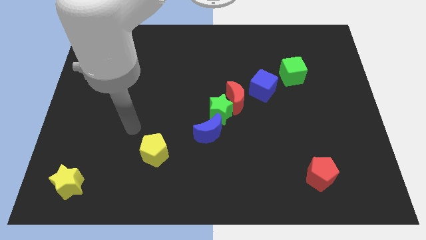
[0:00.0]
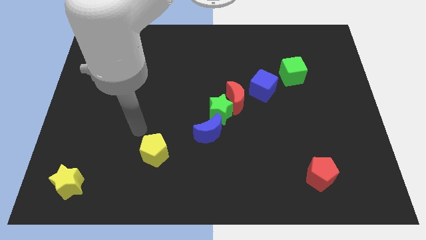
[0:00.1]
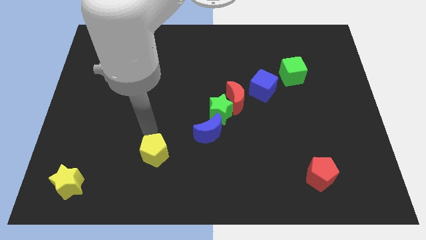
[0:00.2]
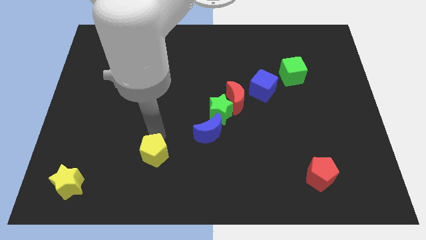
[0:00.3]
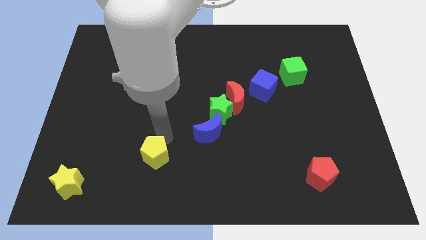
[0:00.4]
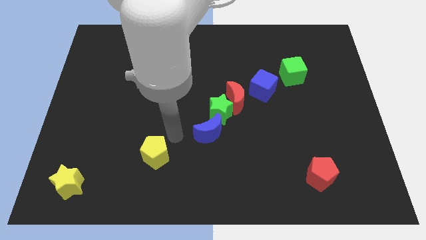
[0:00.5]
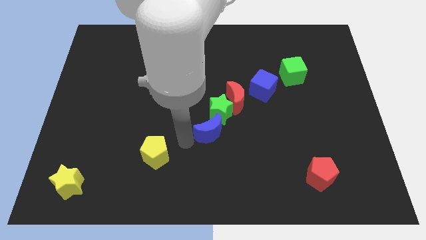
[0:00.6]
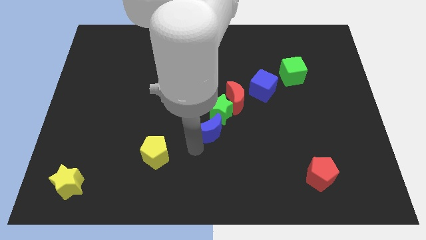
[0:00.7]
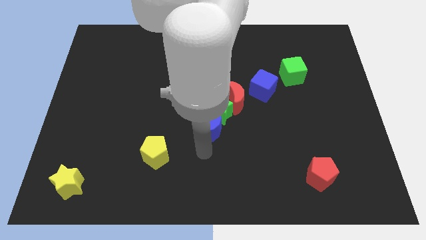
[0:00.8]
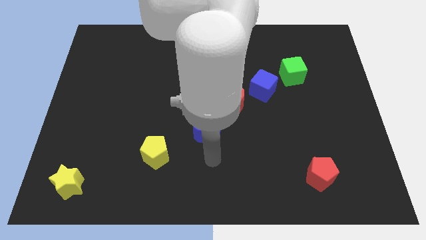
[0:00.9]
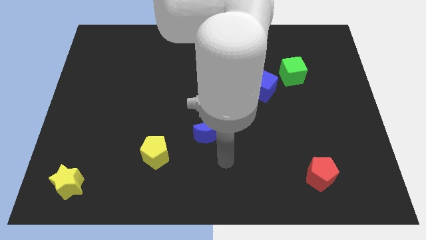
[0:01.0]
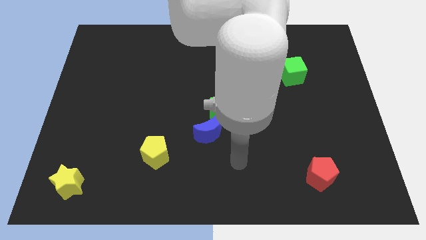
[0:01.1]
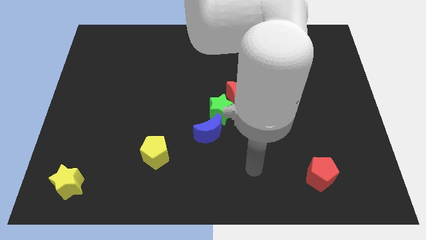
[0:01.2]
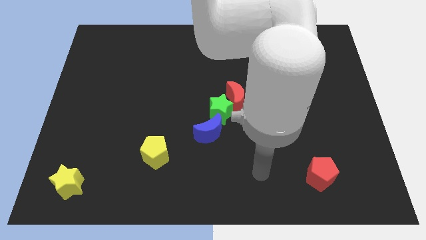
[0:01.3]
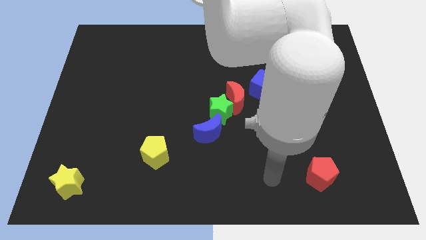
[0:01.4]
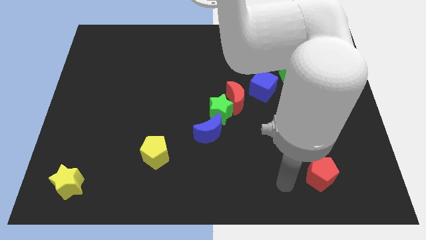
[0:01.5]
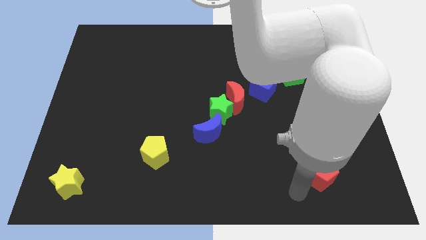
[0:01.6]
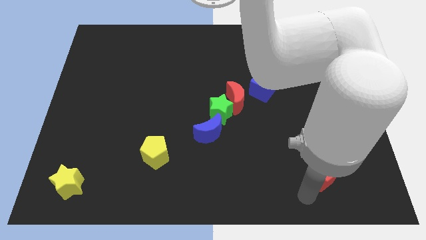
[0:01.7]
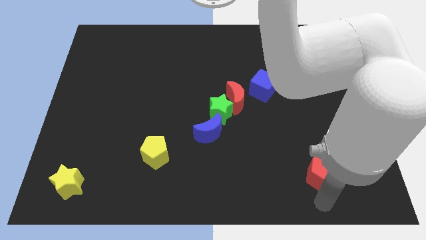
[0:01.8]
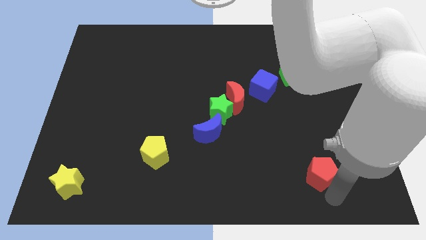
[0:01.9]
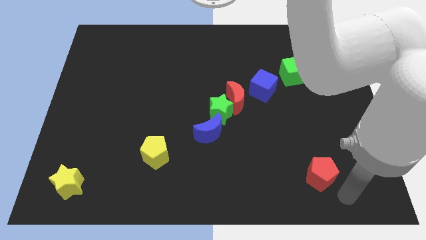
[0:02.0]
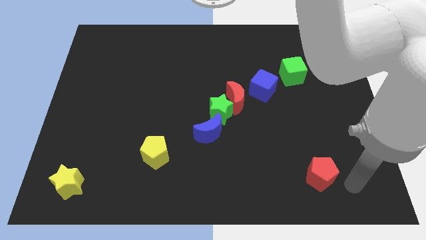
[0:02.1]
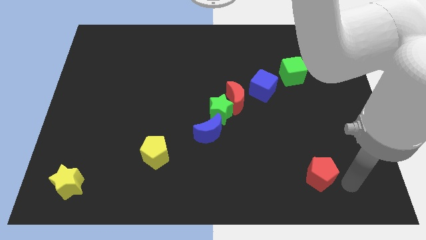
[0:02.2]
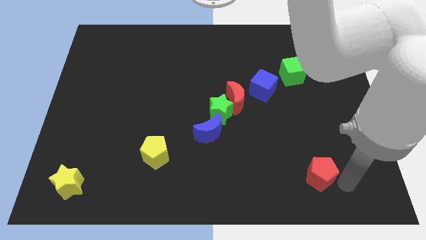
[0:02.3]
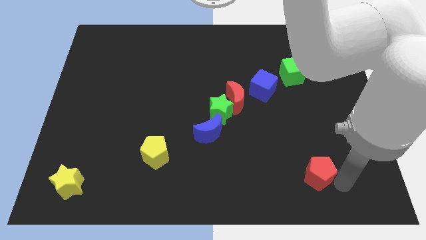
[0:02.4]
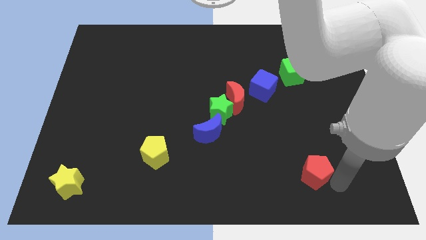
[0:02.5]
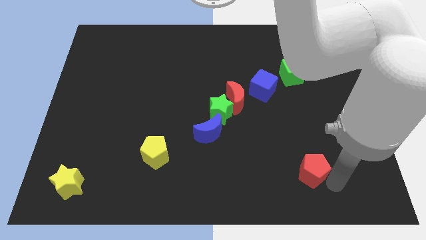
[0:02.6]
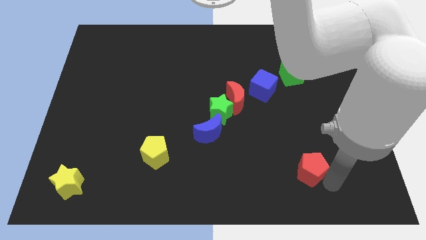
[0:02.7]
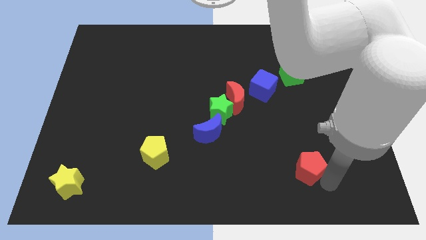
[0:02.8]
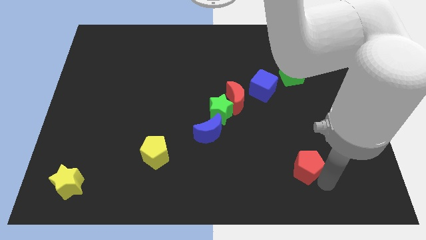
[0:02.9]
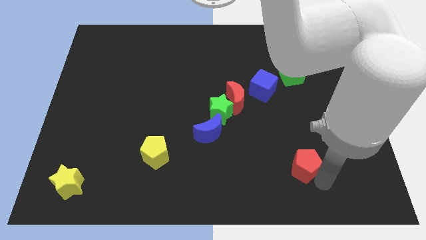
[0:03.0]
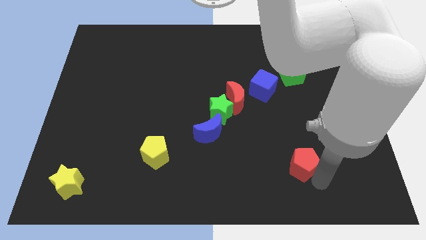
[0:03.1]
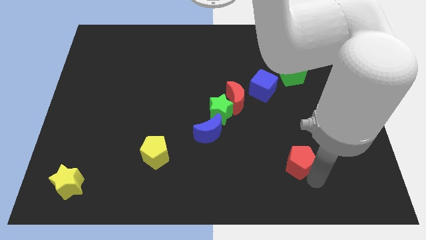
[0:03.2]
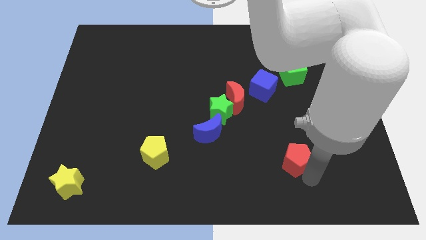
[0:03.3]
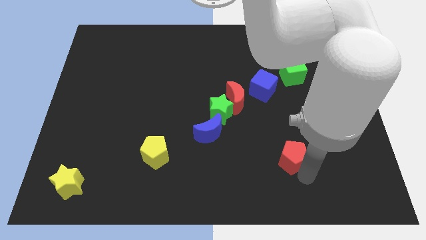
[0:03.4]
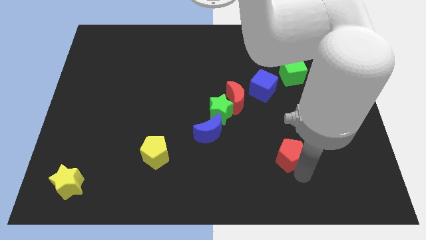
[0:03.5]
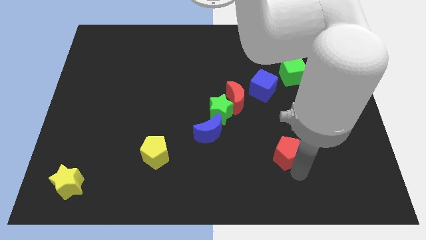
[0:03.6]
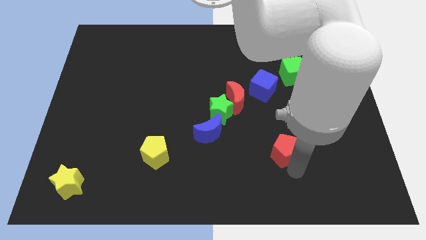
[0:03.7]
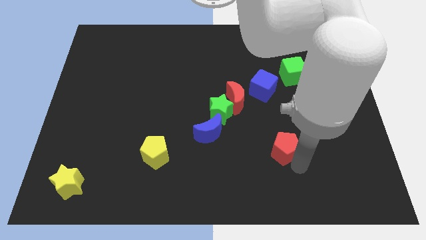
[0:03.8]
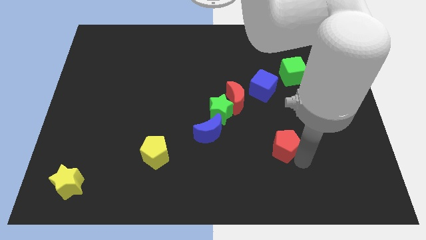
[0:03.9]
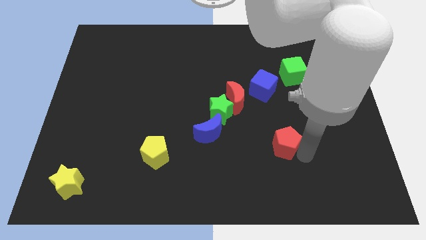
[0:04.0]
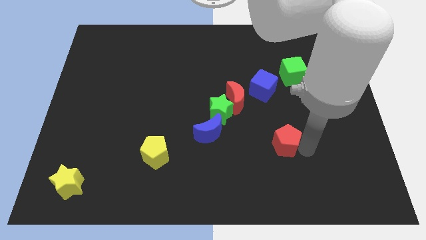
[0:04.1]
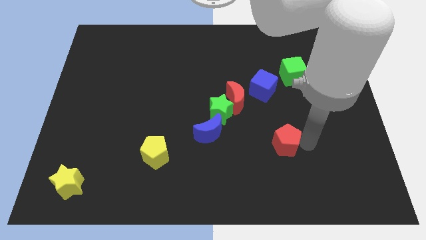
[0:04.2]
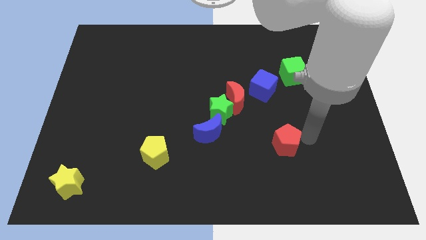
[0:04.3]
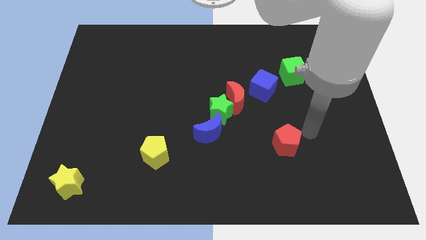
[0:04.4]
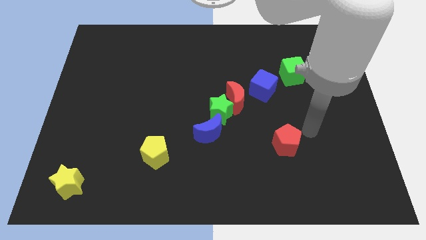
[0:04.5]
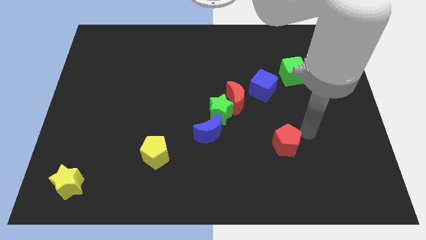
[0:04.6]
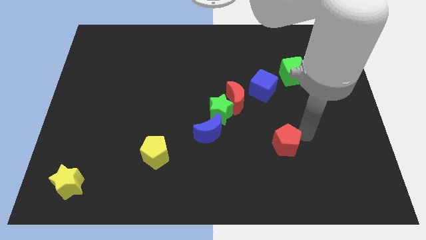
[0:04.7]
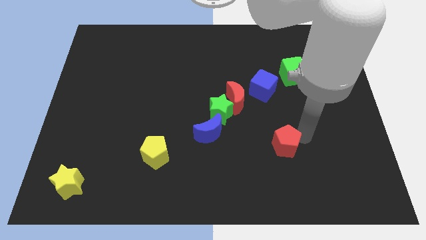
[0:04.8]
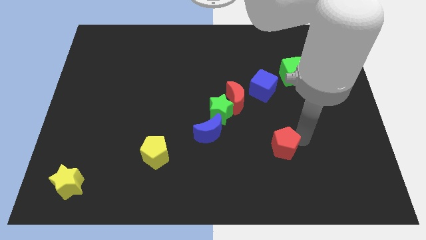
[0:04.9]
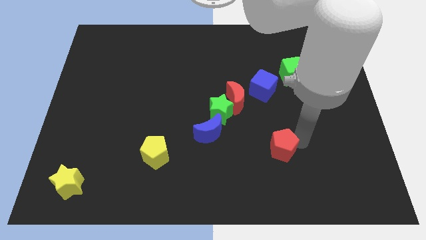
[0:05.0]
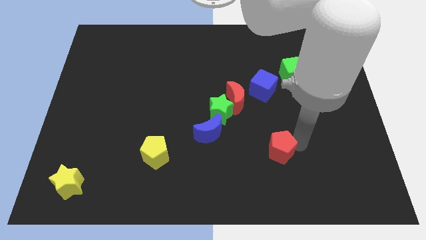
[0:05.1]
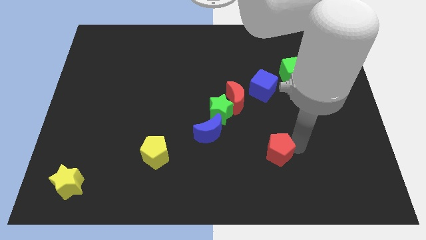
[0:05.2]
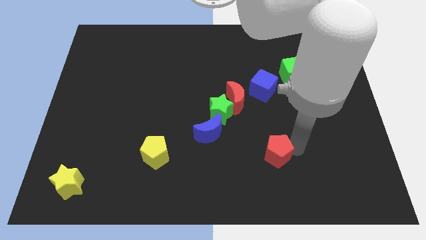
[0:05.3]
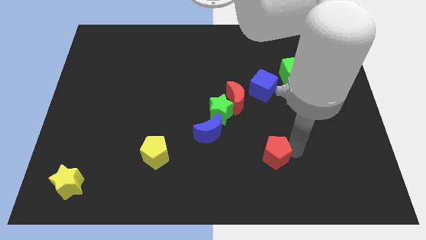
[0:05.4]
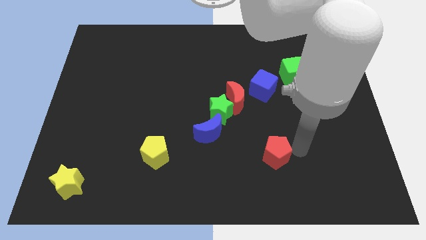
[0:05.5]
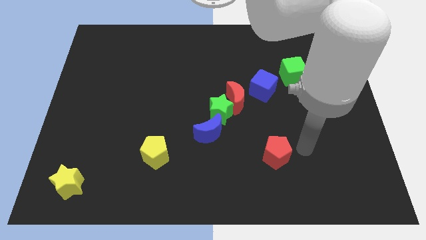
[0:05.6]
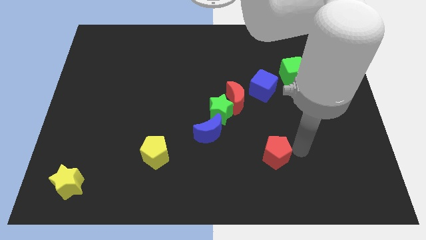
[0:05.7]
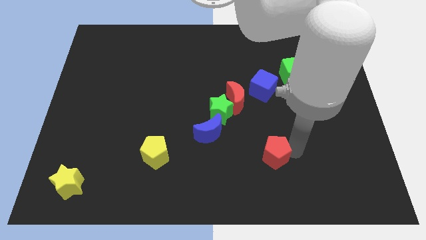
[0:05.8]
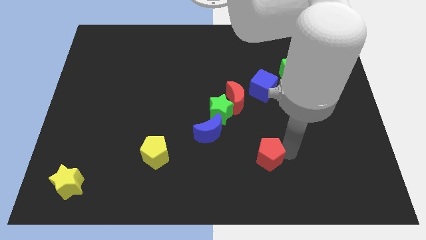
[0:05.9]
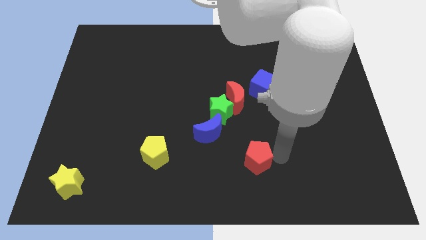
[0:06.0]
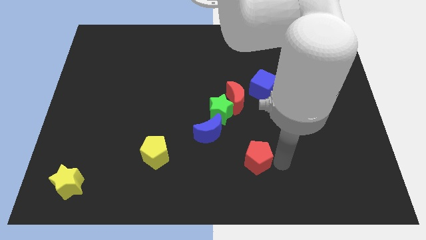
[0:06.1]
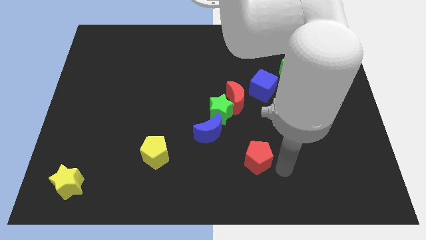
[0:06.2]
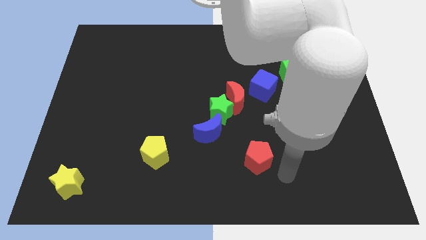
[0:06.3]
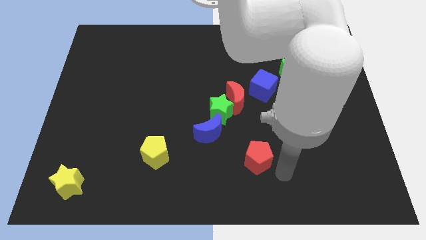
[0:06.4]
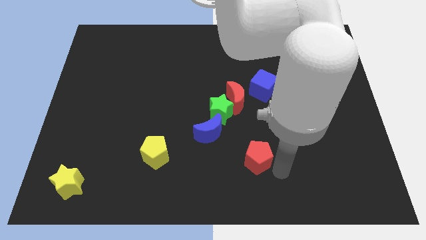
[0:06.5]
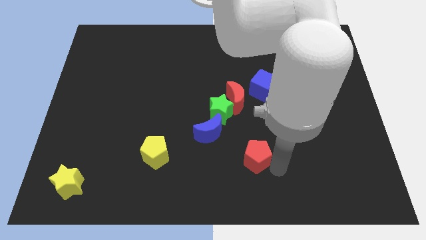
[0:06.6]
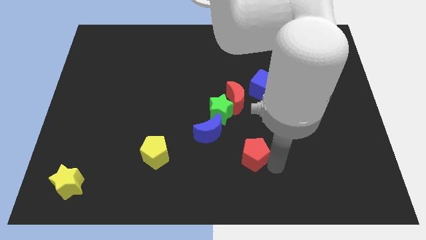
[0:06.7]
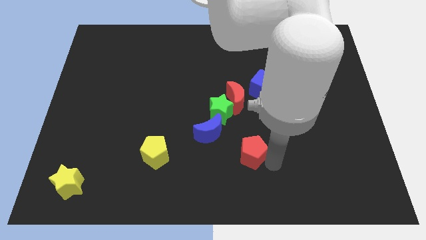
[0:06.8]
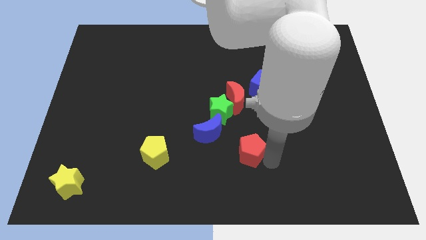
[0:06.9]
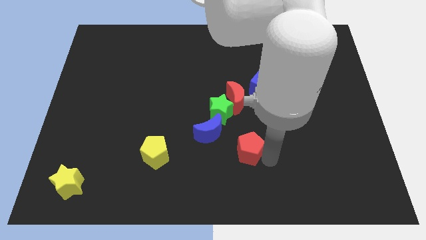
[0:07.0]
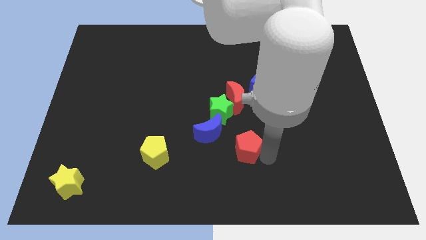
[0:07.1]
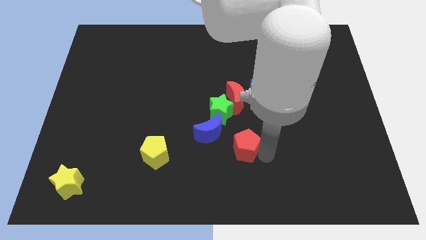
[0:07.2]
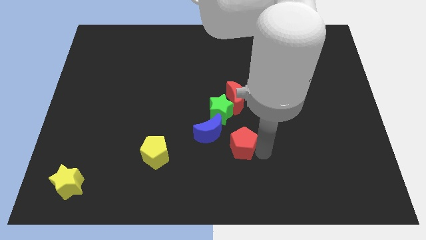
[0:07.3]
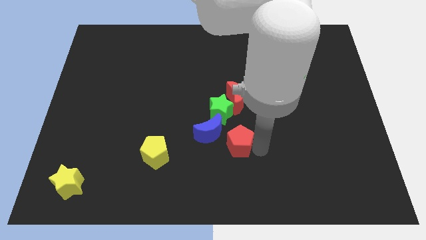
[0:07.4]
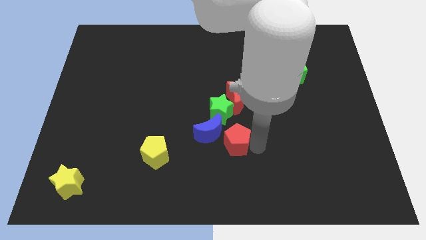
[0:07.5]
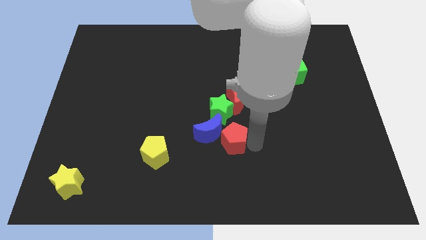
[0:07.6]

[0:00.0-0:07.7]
slide the red pentagon to the blue moon

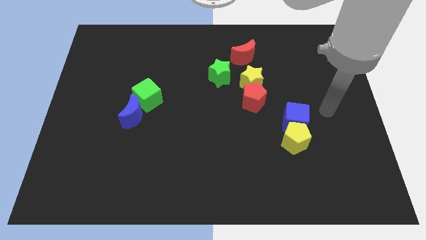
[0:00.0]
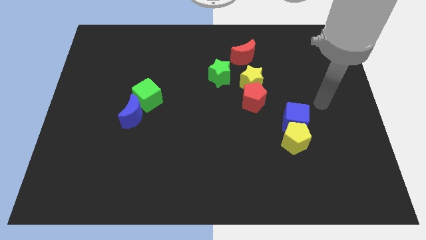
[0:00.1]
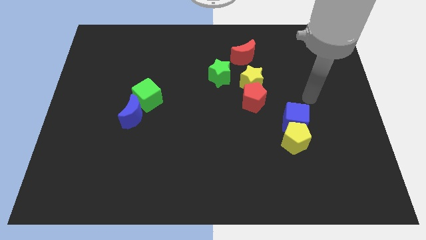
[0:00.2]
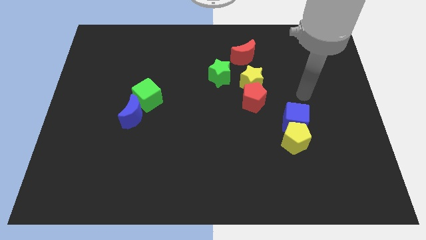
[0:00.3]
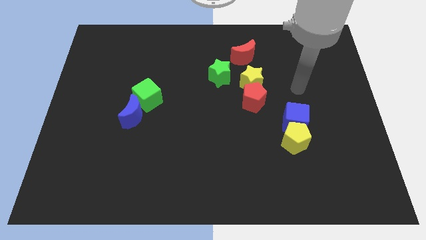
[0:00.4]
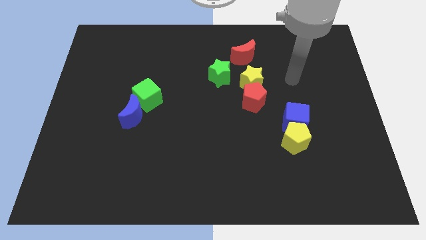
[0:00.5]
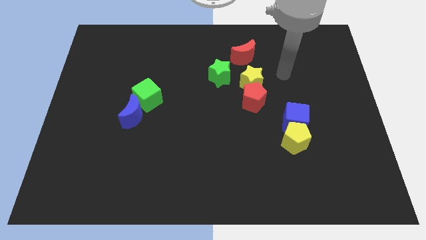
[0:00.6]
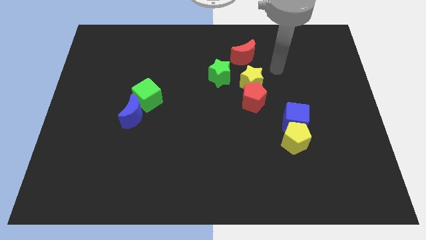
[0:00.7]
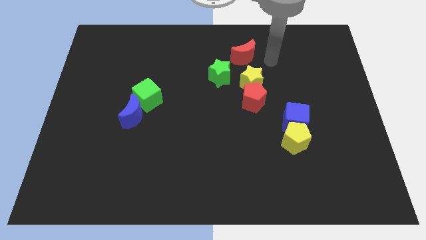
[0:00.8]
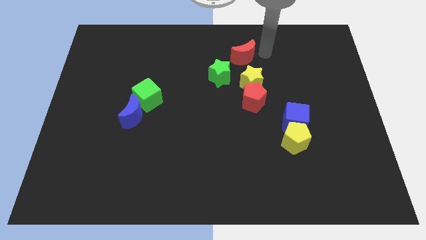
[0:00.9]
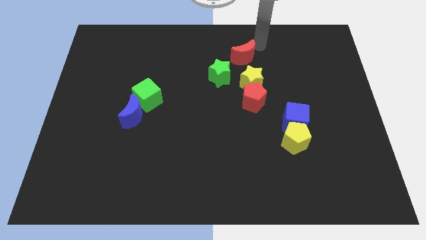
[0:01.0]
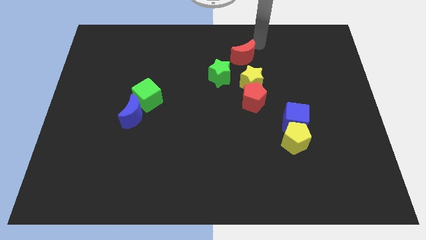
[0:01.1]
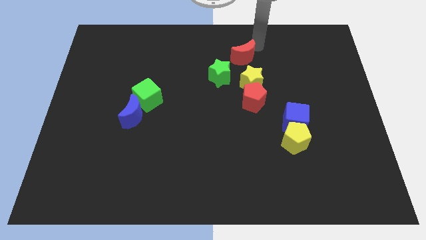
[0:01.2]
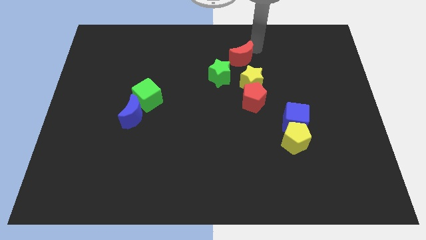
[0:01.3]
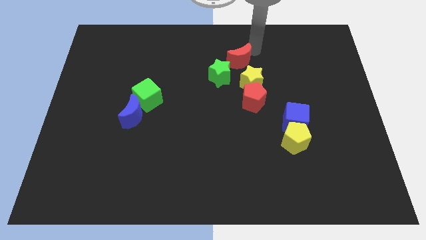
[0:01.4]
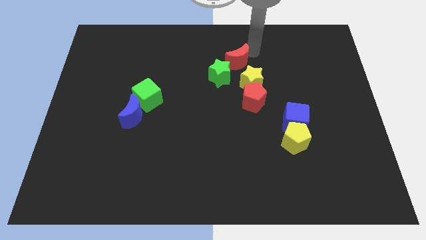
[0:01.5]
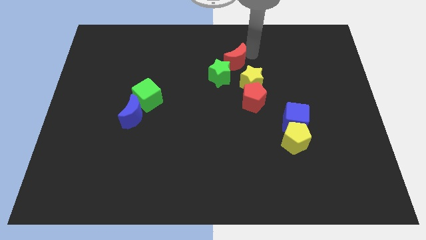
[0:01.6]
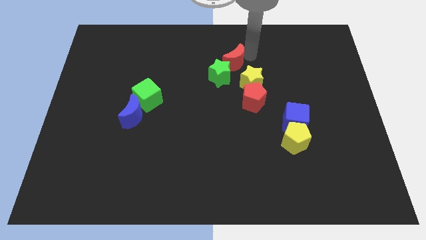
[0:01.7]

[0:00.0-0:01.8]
slide the red moon next to the green star
